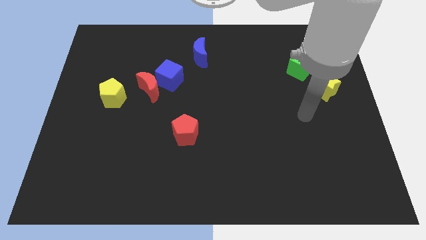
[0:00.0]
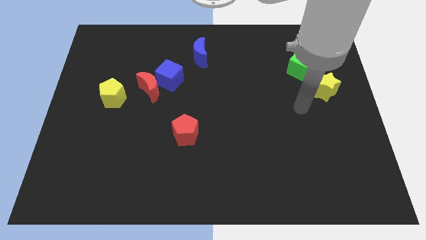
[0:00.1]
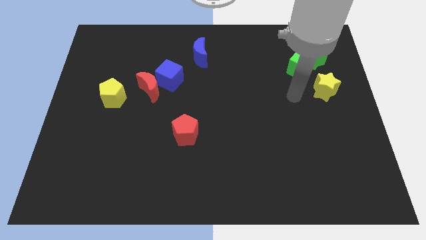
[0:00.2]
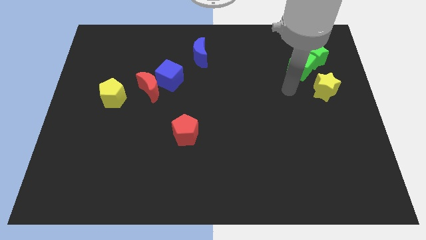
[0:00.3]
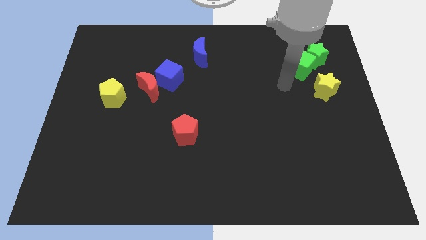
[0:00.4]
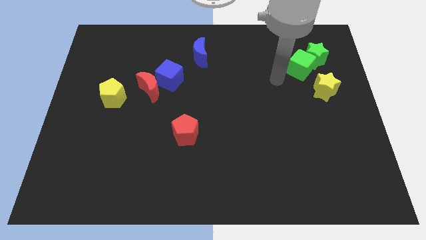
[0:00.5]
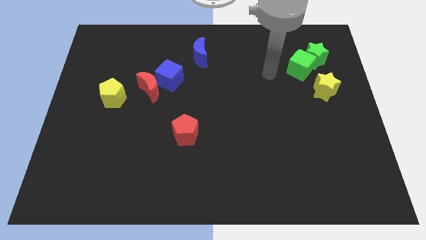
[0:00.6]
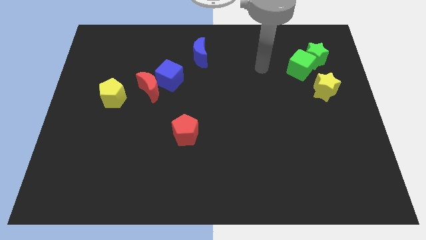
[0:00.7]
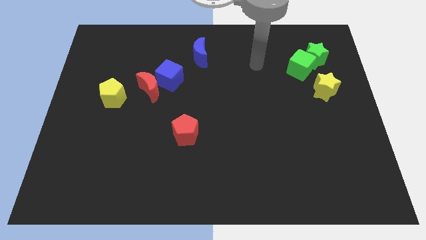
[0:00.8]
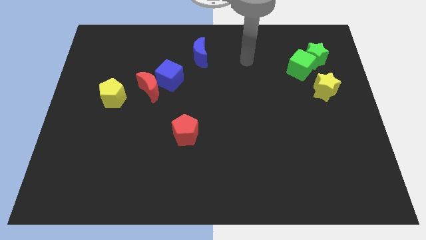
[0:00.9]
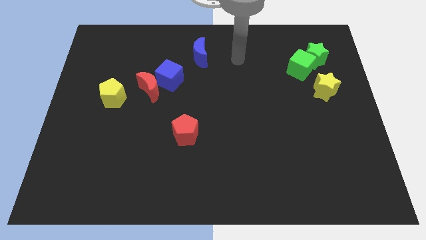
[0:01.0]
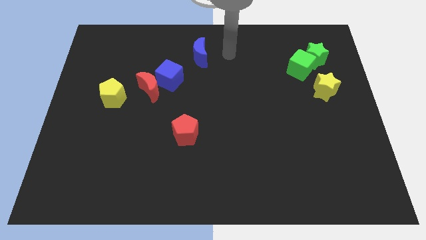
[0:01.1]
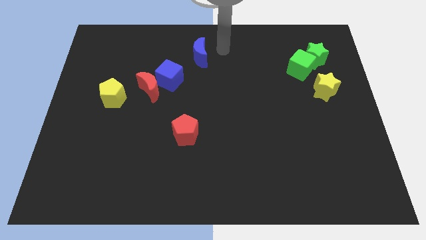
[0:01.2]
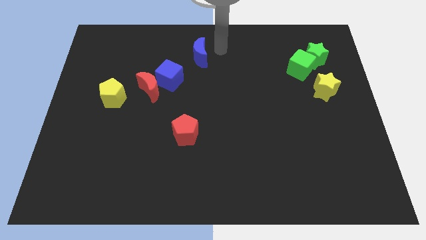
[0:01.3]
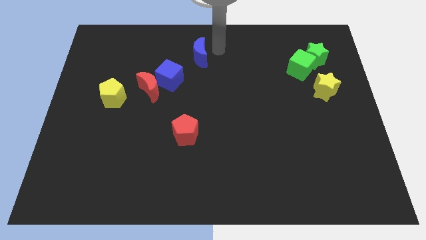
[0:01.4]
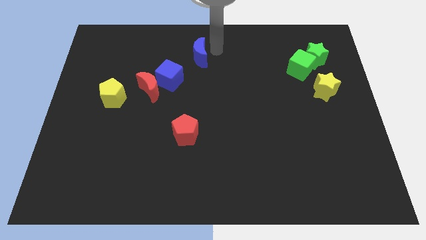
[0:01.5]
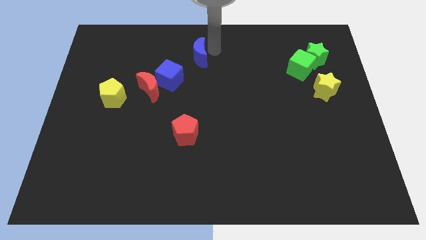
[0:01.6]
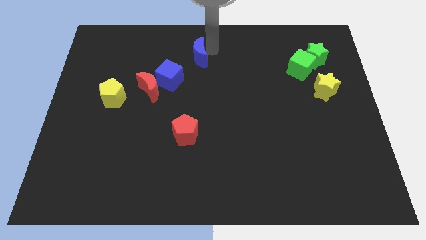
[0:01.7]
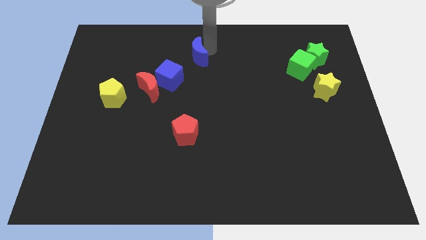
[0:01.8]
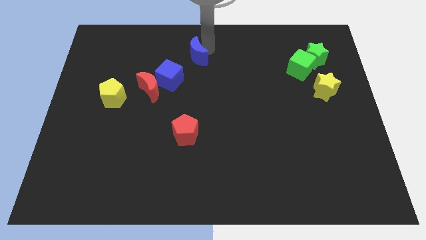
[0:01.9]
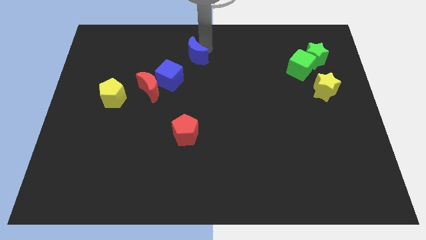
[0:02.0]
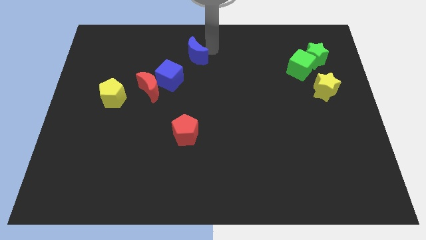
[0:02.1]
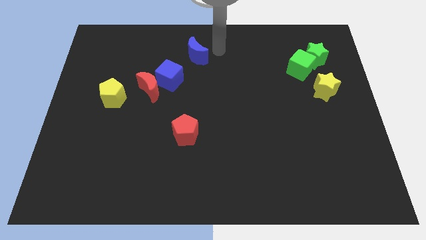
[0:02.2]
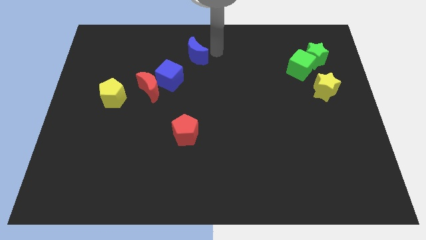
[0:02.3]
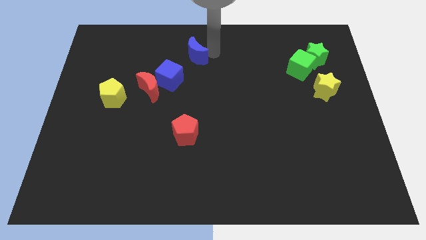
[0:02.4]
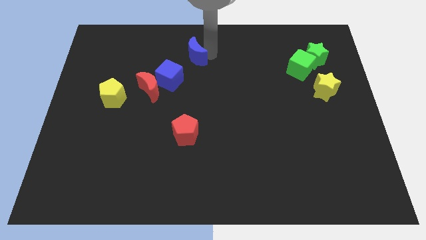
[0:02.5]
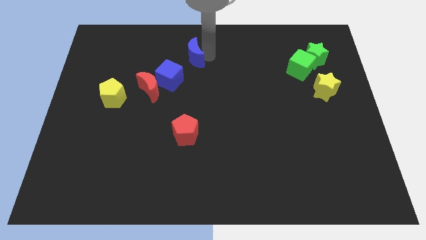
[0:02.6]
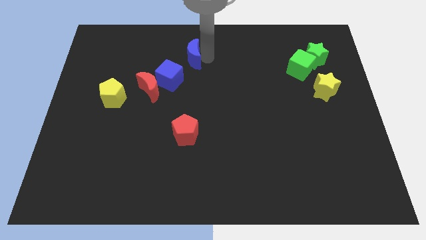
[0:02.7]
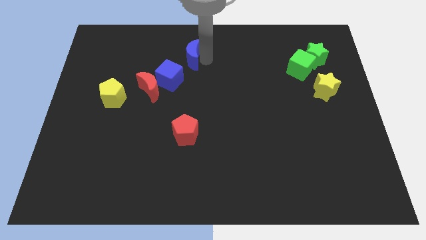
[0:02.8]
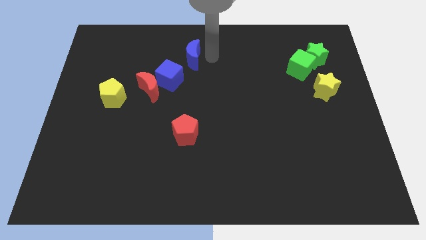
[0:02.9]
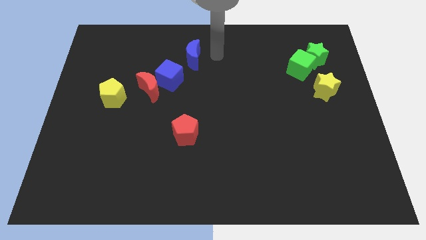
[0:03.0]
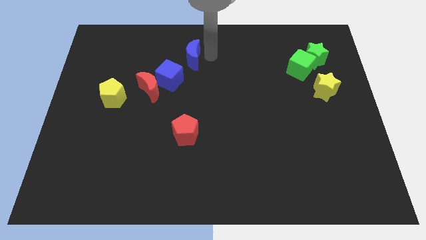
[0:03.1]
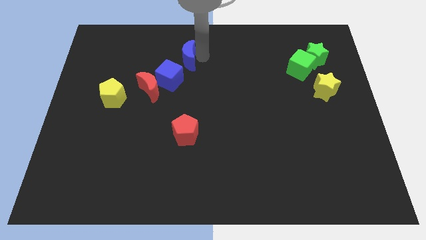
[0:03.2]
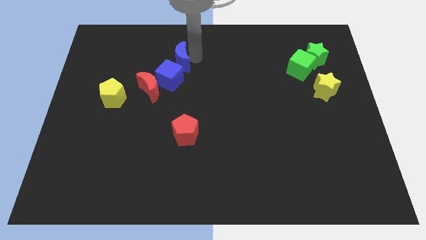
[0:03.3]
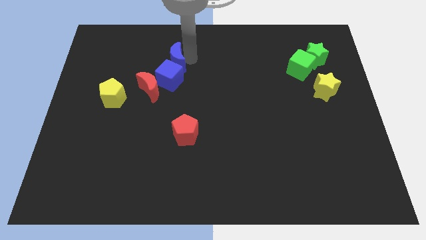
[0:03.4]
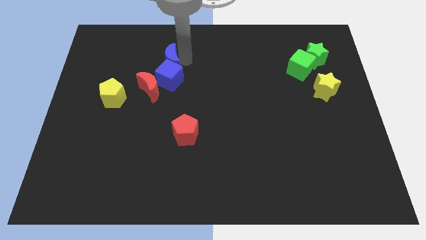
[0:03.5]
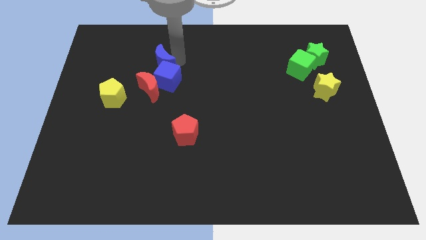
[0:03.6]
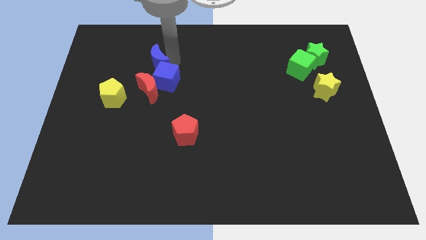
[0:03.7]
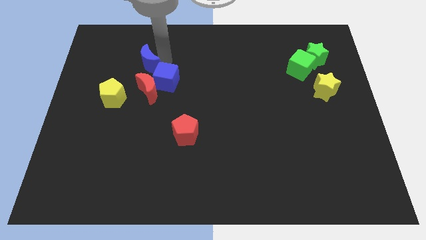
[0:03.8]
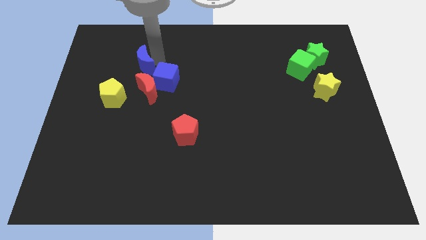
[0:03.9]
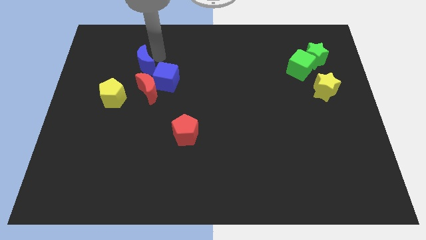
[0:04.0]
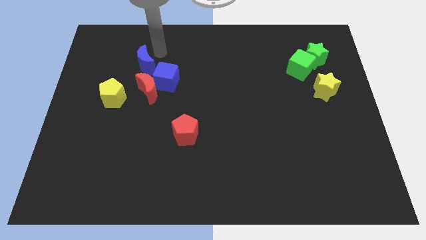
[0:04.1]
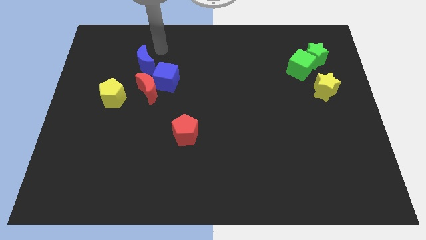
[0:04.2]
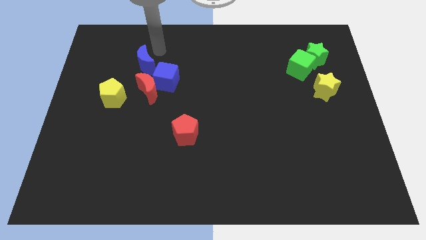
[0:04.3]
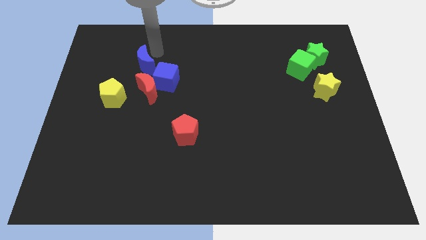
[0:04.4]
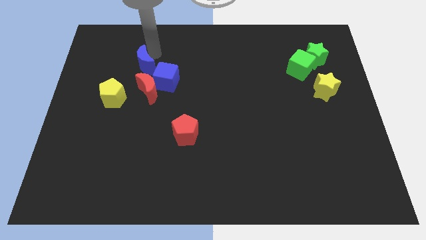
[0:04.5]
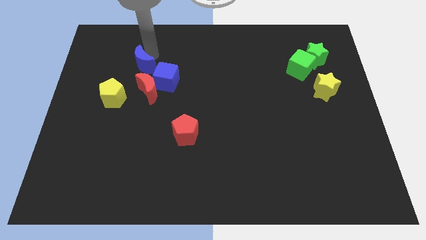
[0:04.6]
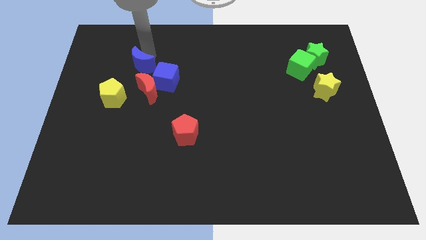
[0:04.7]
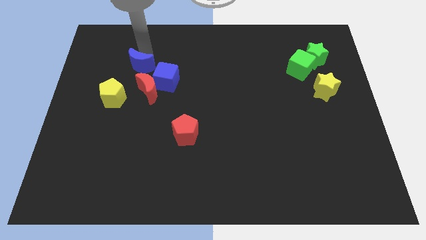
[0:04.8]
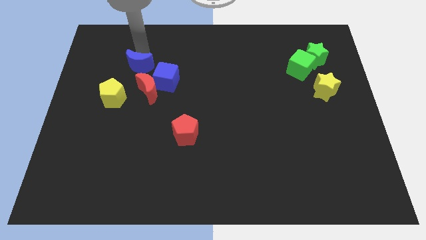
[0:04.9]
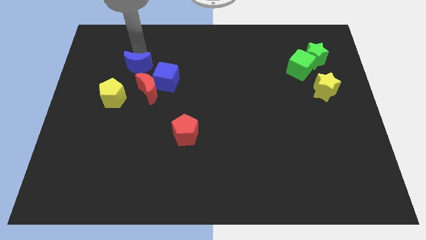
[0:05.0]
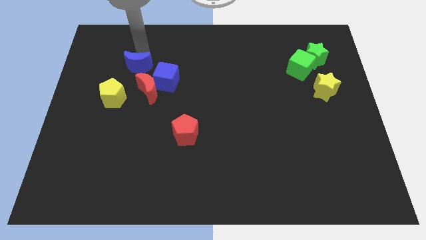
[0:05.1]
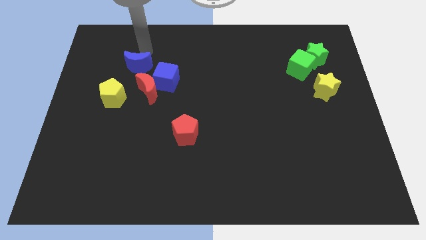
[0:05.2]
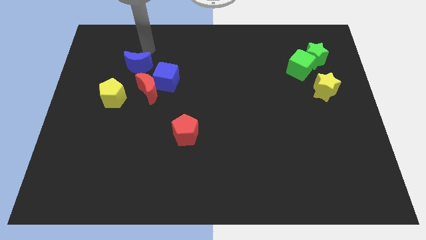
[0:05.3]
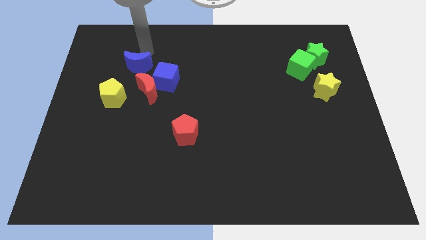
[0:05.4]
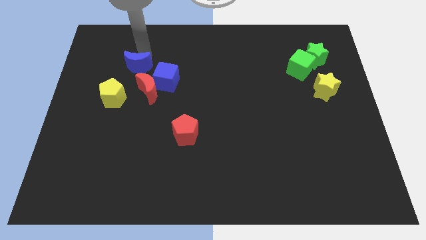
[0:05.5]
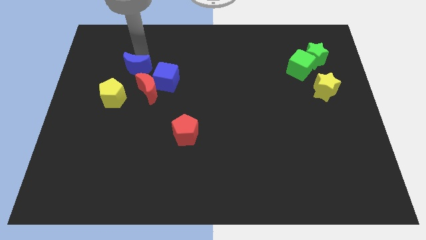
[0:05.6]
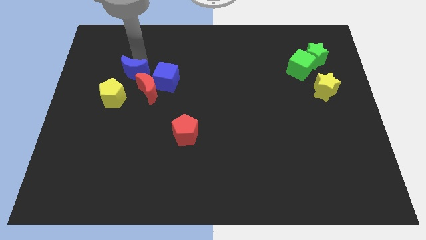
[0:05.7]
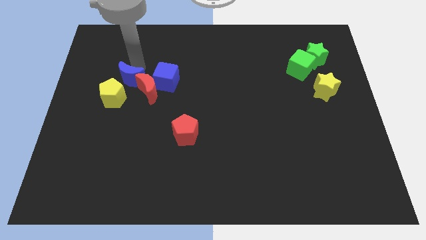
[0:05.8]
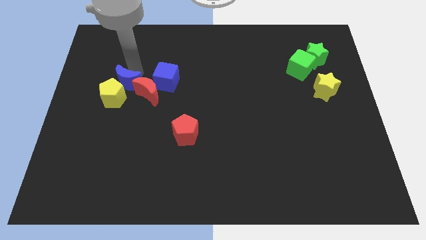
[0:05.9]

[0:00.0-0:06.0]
push the blue moon towards the yellow pentagon

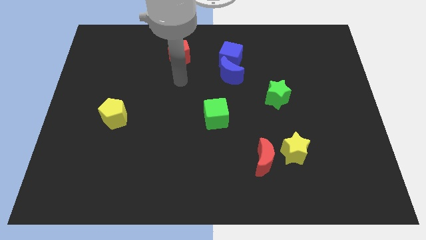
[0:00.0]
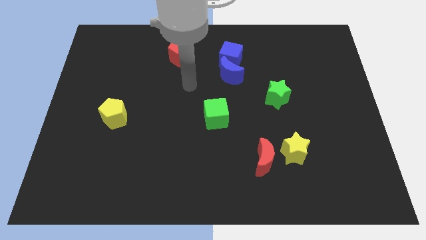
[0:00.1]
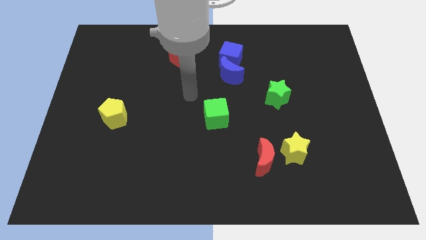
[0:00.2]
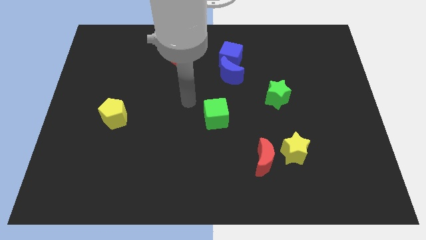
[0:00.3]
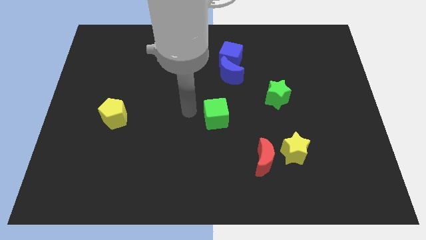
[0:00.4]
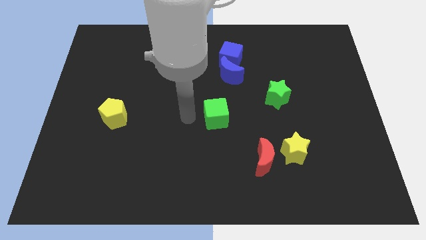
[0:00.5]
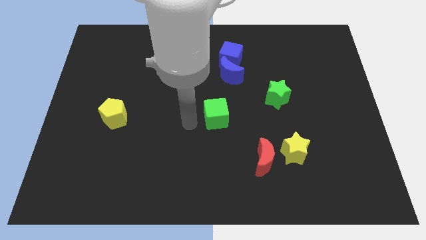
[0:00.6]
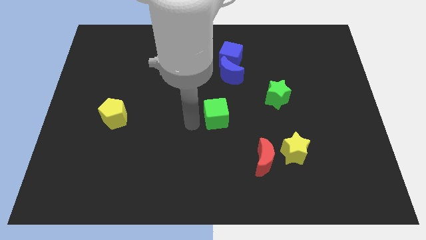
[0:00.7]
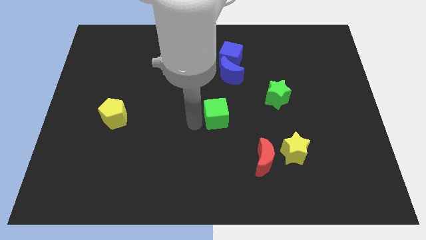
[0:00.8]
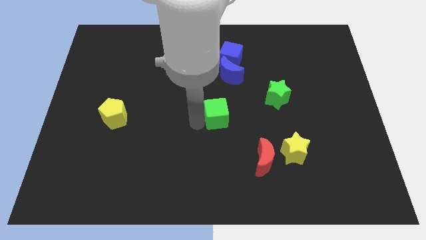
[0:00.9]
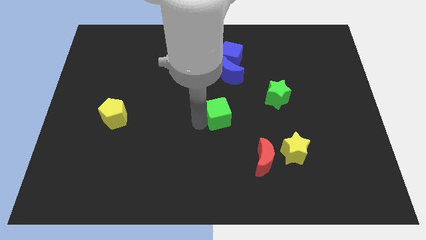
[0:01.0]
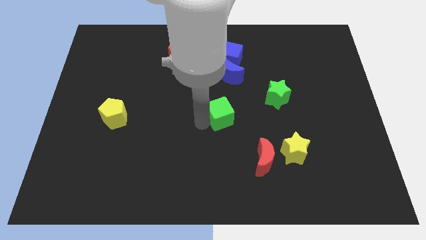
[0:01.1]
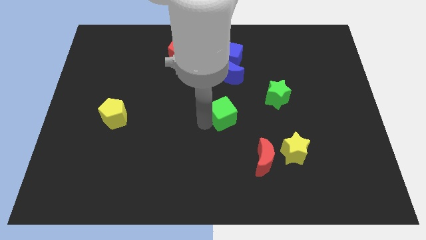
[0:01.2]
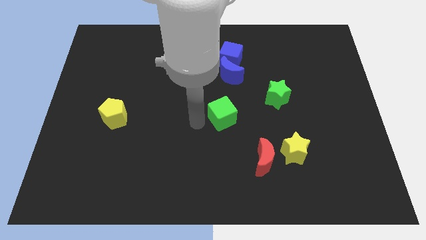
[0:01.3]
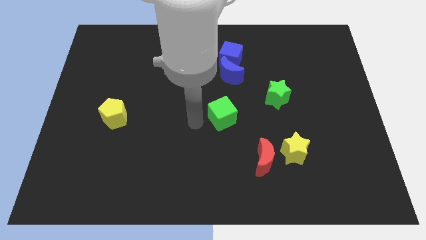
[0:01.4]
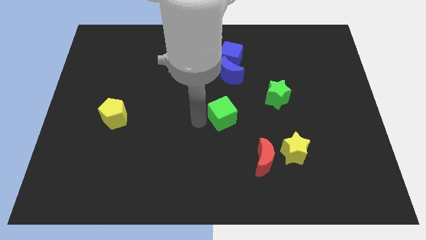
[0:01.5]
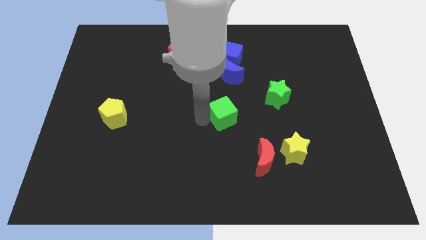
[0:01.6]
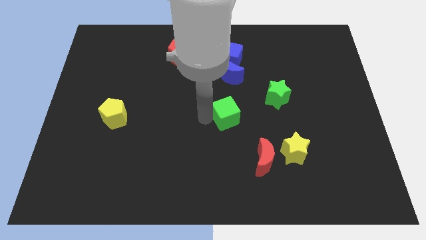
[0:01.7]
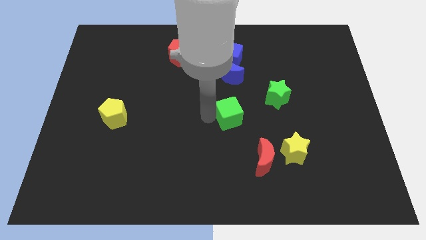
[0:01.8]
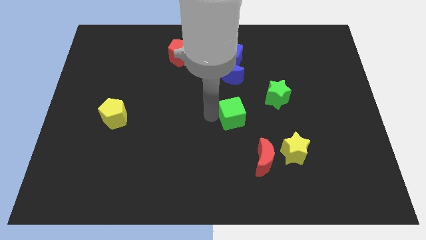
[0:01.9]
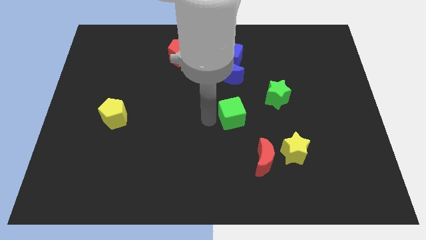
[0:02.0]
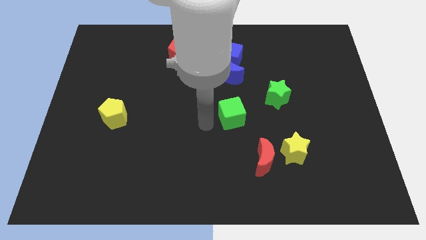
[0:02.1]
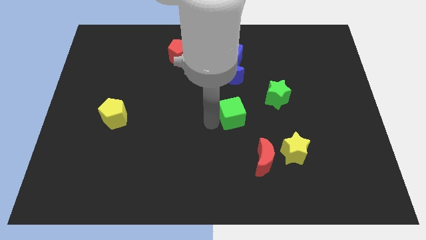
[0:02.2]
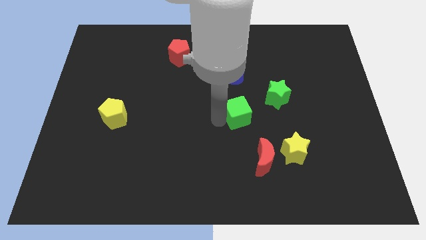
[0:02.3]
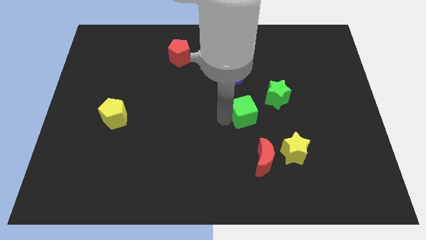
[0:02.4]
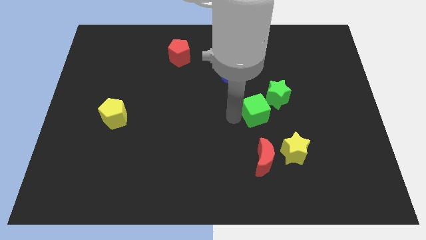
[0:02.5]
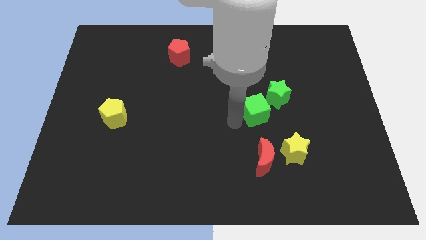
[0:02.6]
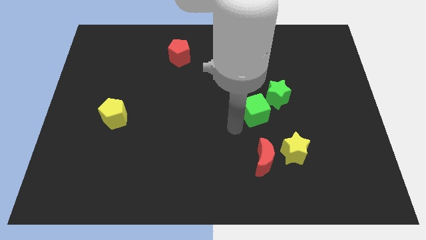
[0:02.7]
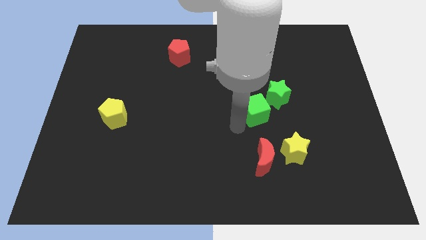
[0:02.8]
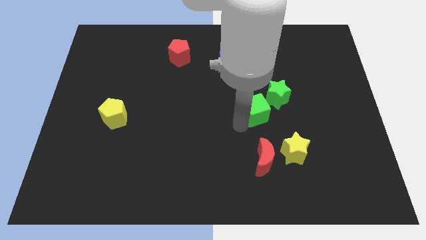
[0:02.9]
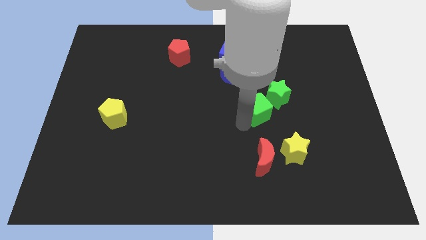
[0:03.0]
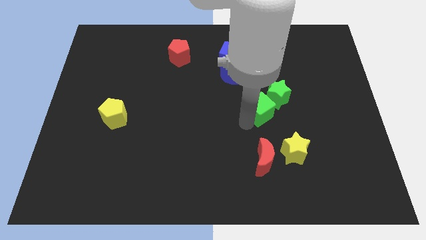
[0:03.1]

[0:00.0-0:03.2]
put the green cube towards the green star
